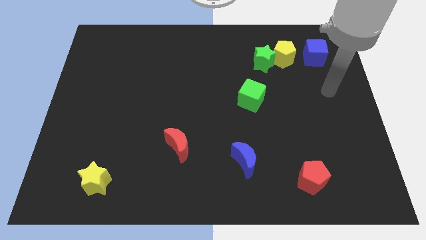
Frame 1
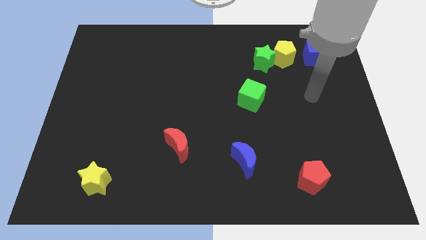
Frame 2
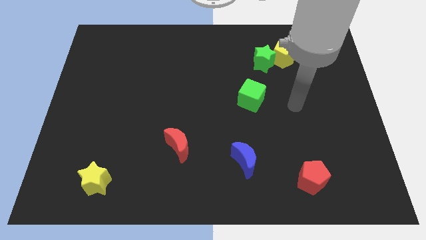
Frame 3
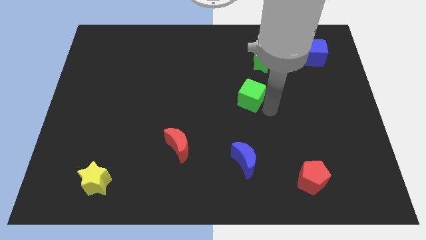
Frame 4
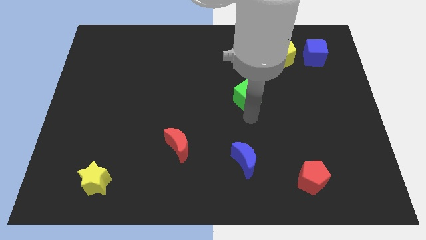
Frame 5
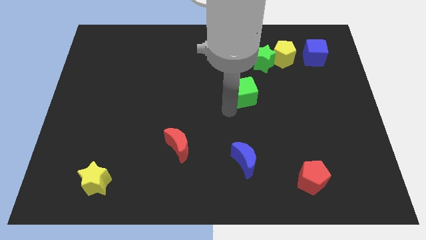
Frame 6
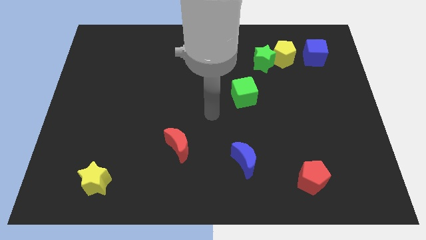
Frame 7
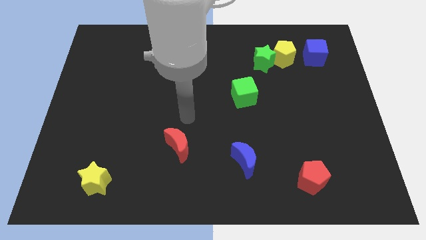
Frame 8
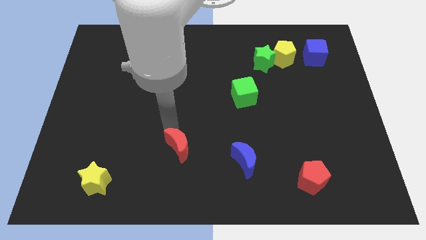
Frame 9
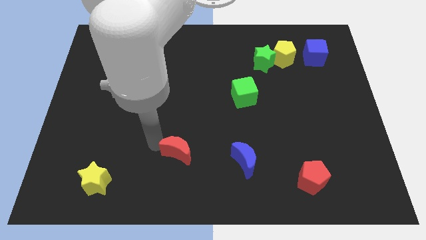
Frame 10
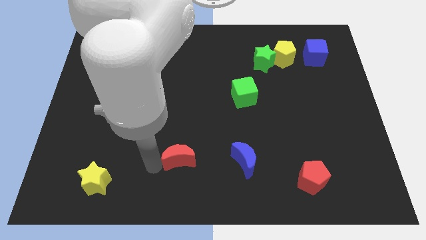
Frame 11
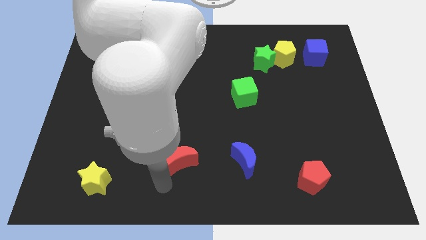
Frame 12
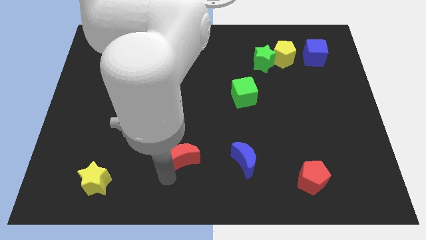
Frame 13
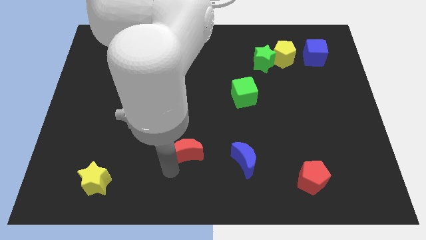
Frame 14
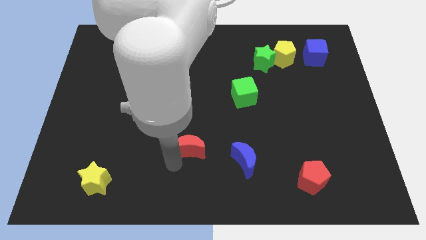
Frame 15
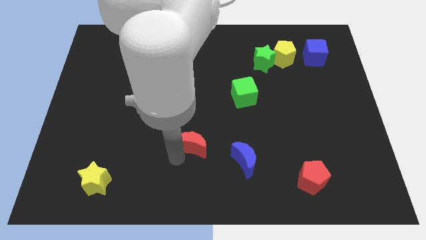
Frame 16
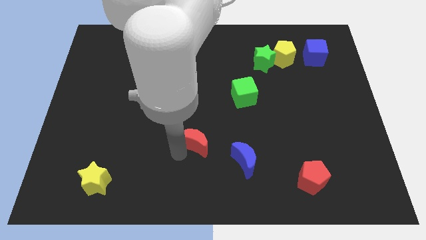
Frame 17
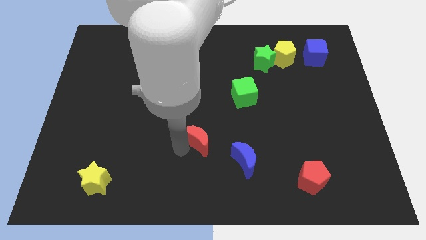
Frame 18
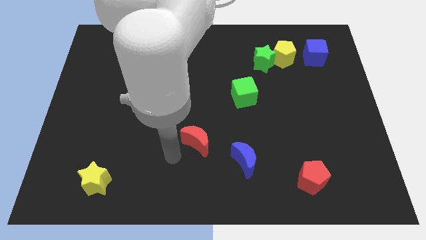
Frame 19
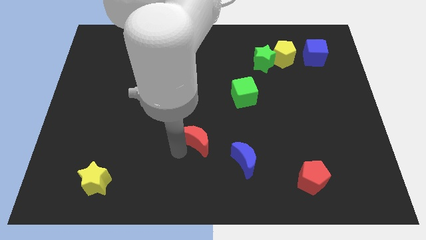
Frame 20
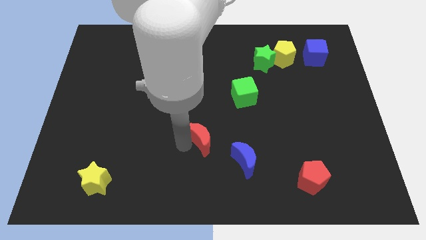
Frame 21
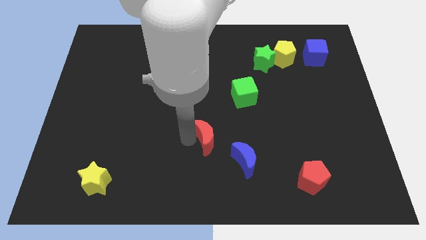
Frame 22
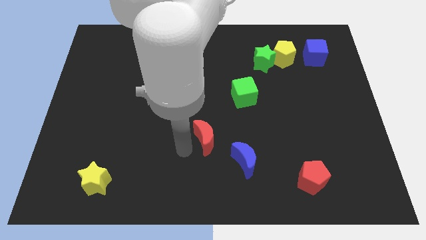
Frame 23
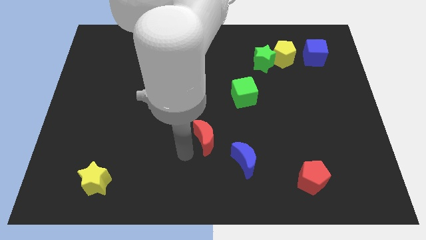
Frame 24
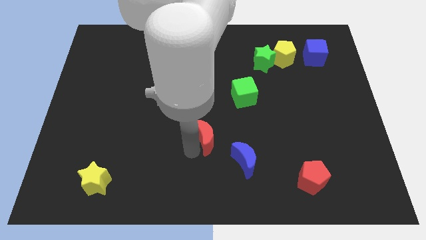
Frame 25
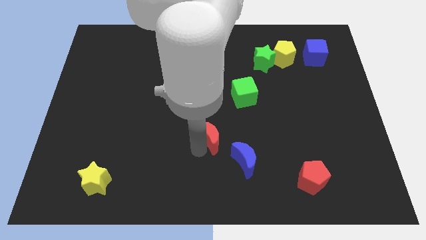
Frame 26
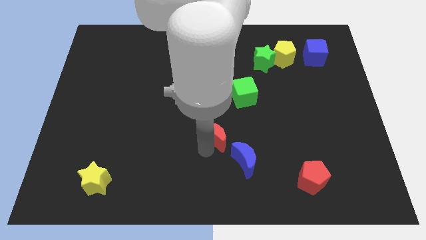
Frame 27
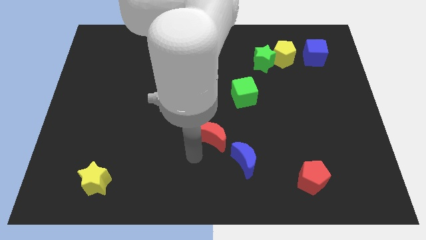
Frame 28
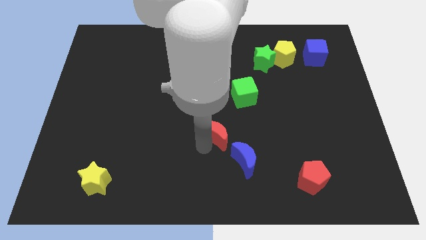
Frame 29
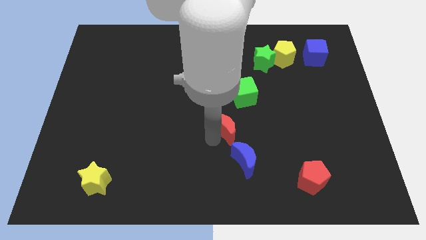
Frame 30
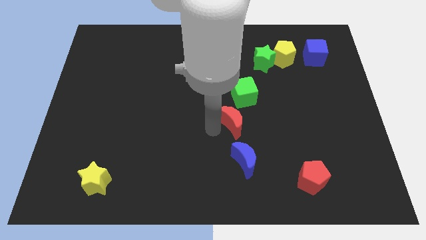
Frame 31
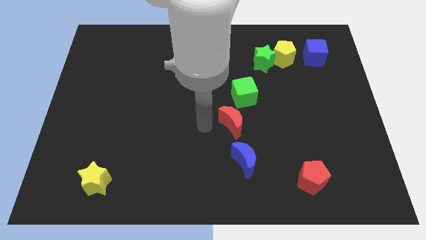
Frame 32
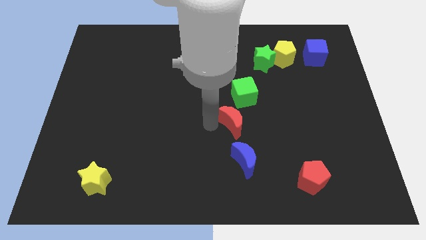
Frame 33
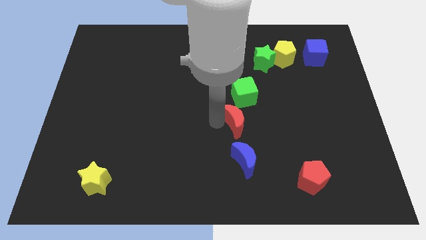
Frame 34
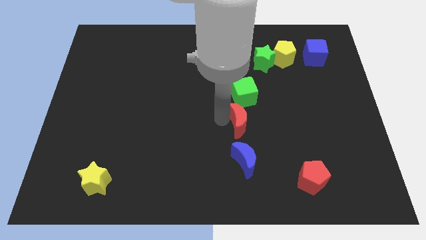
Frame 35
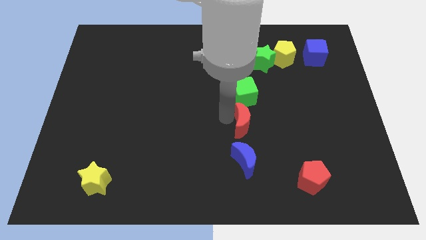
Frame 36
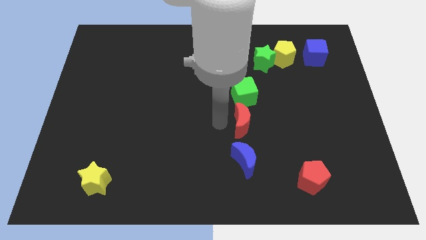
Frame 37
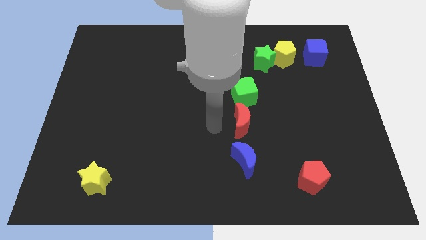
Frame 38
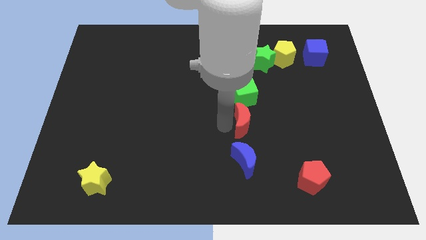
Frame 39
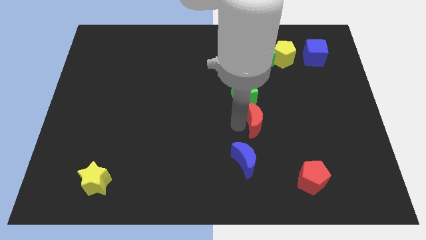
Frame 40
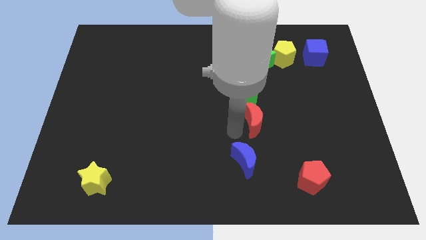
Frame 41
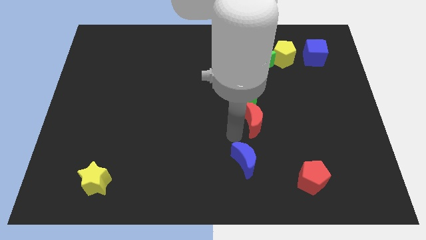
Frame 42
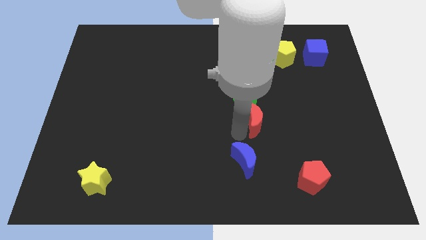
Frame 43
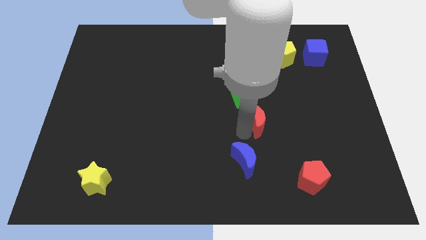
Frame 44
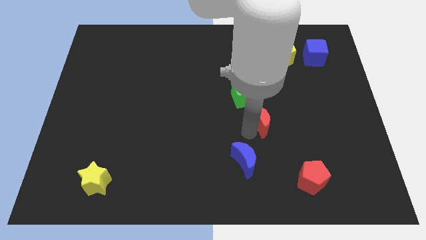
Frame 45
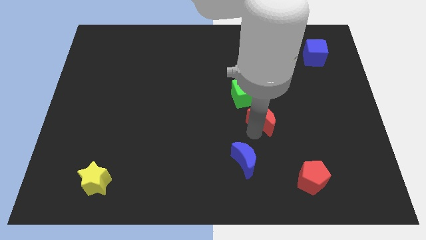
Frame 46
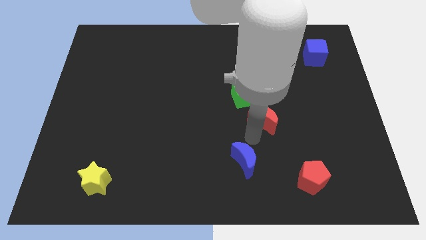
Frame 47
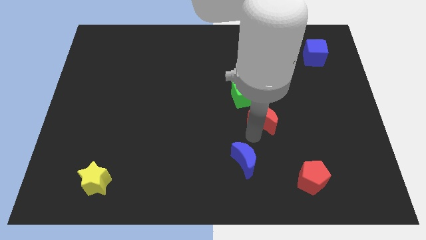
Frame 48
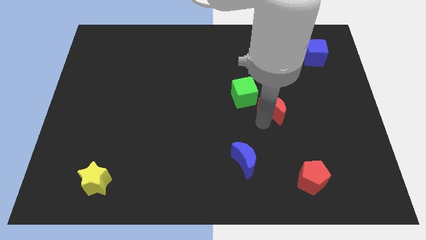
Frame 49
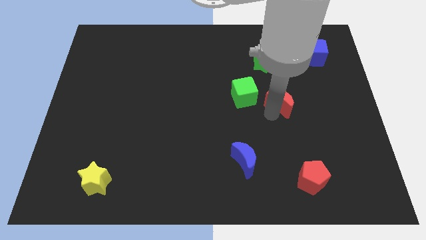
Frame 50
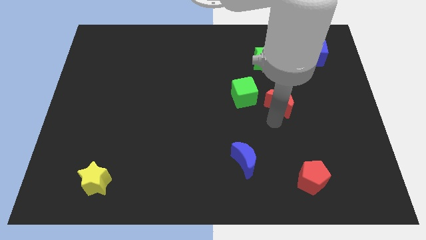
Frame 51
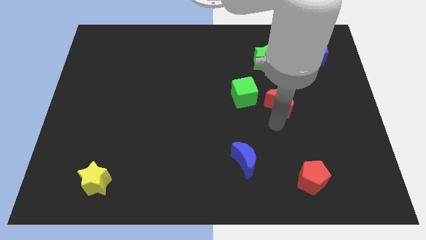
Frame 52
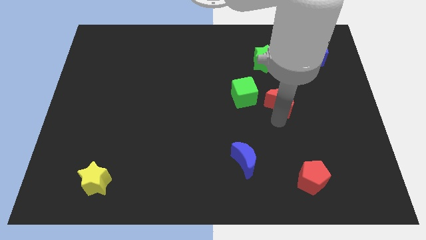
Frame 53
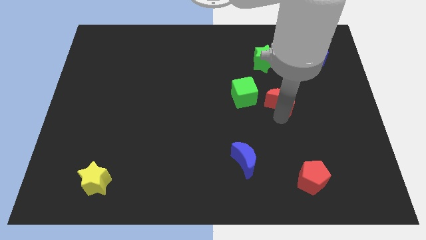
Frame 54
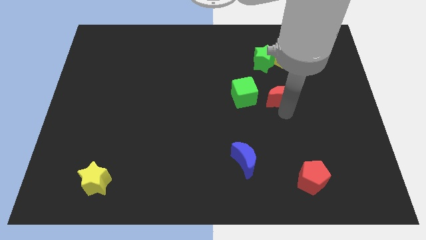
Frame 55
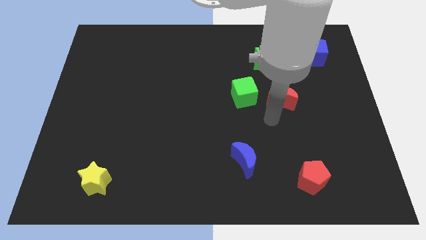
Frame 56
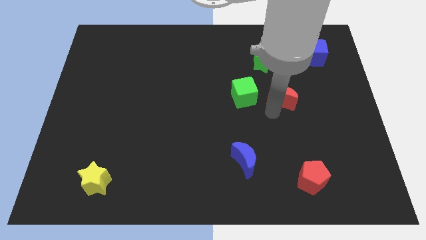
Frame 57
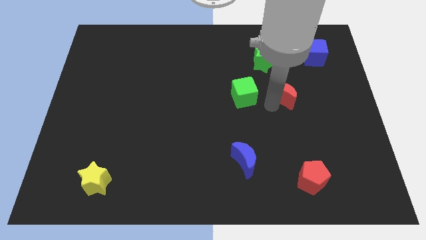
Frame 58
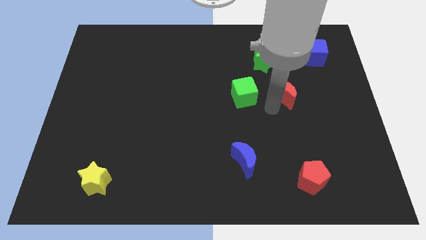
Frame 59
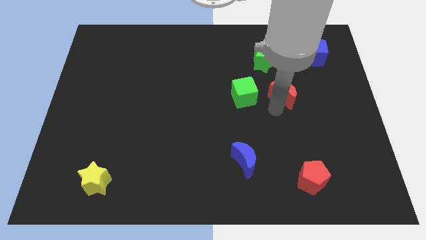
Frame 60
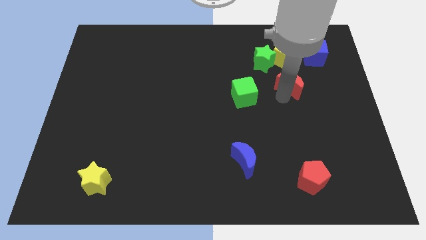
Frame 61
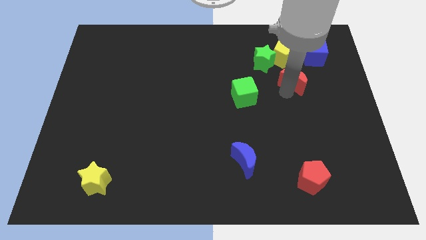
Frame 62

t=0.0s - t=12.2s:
move the red moon diagonally down and to the left of the blue cube

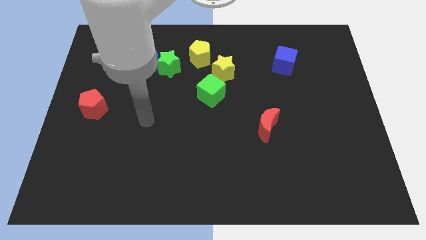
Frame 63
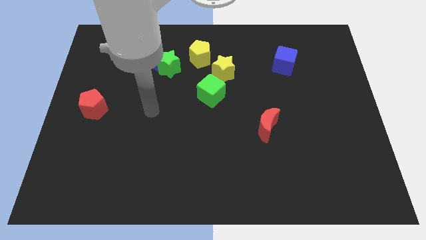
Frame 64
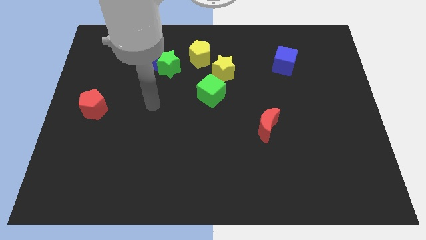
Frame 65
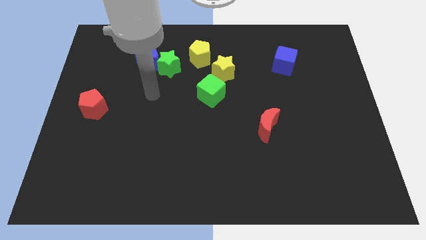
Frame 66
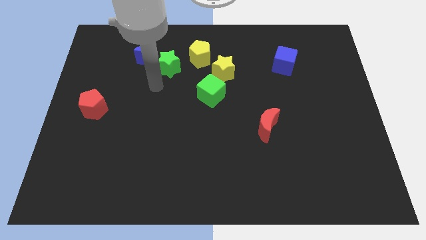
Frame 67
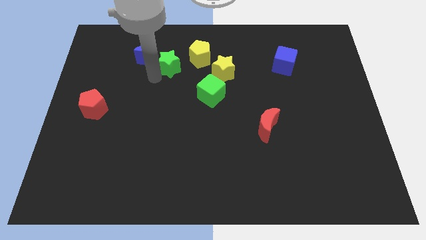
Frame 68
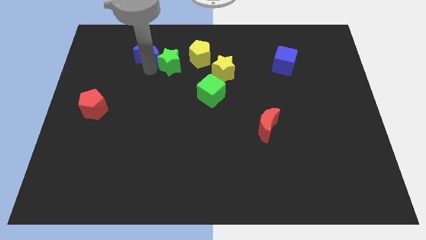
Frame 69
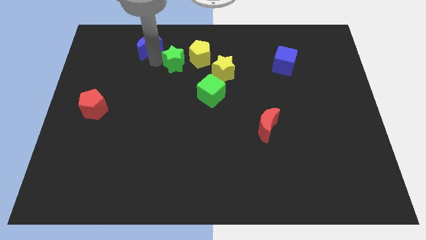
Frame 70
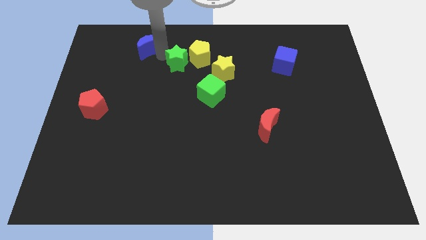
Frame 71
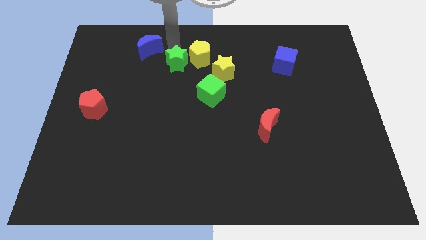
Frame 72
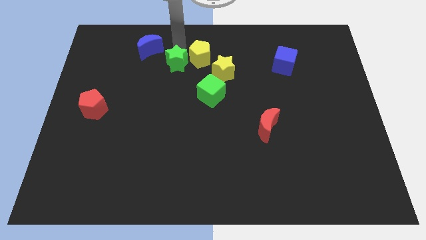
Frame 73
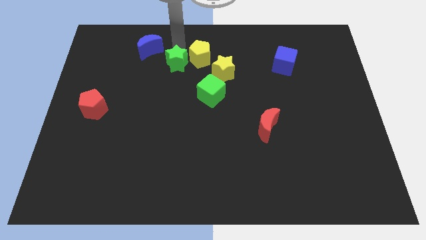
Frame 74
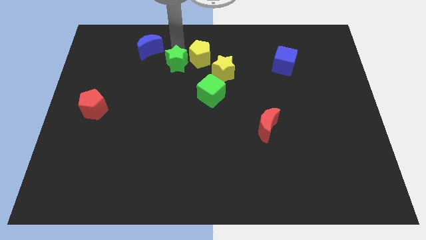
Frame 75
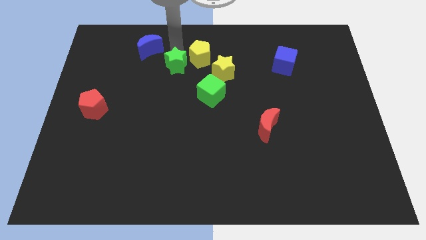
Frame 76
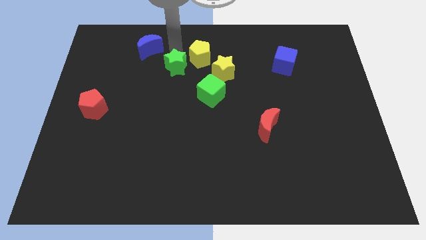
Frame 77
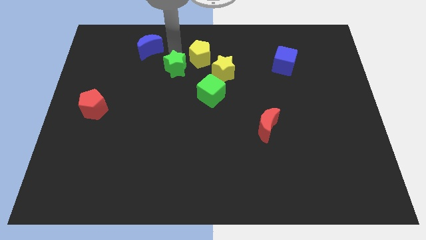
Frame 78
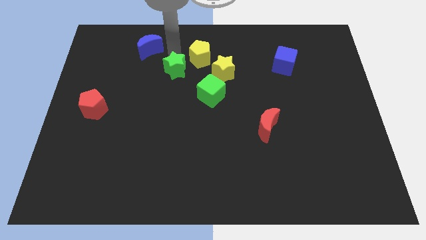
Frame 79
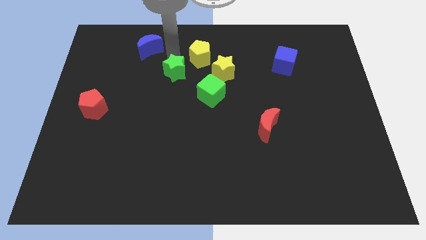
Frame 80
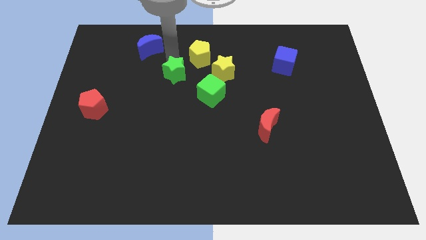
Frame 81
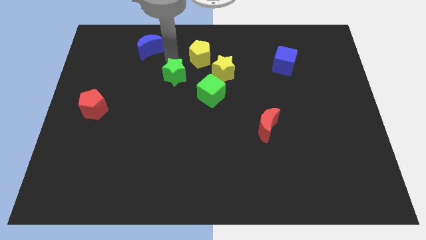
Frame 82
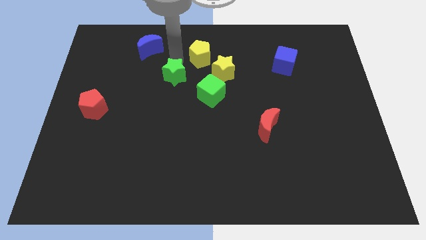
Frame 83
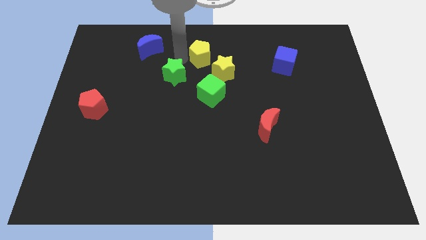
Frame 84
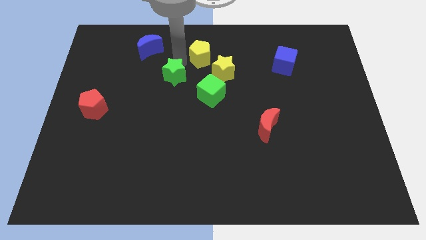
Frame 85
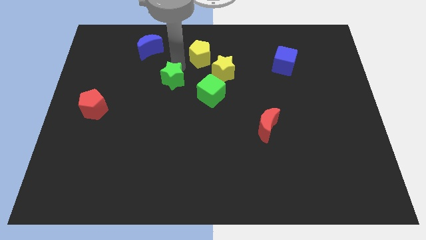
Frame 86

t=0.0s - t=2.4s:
push the green star to the left of the green cube
